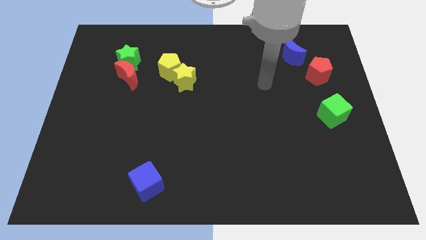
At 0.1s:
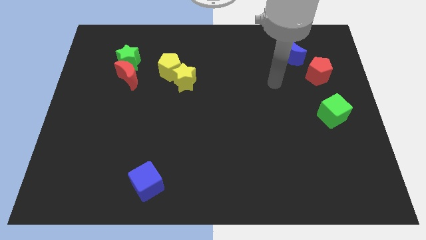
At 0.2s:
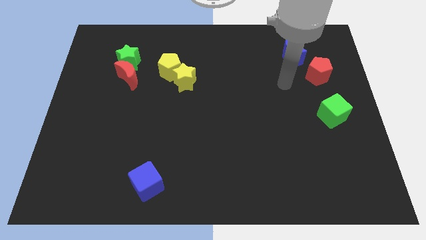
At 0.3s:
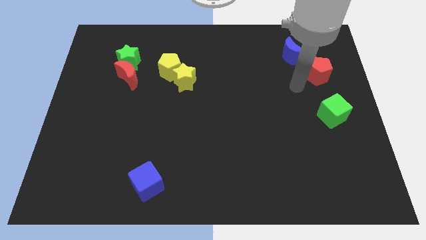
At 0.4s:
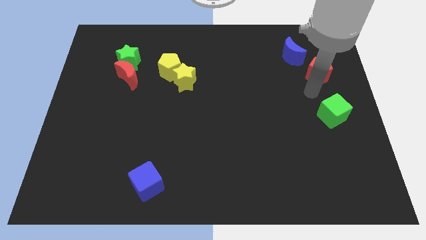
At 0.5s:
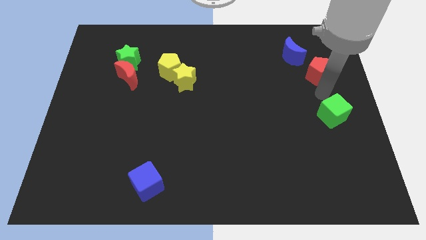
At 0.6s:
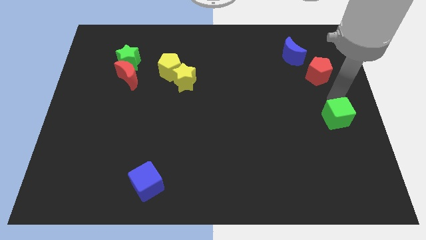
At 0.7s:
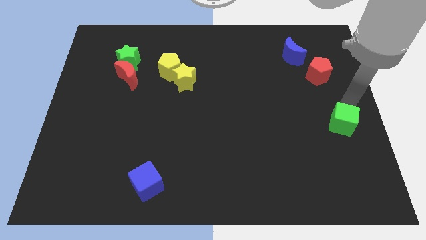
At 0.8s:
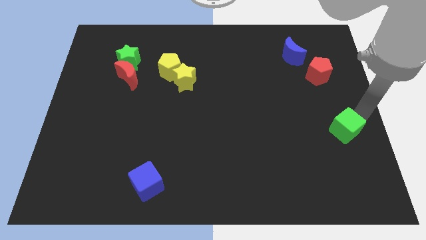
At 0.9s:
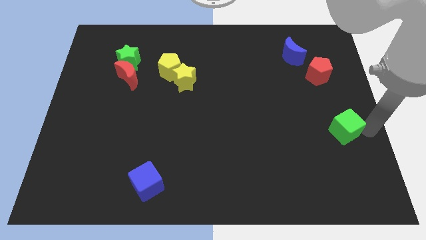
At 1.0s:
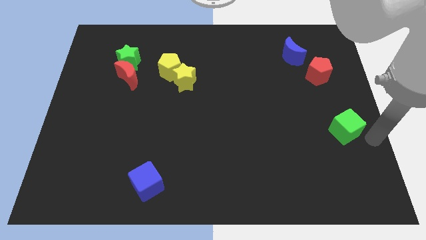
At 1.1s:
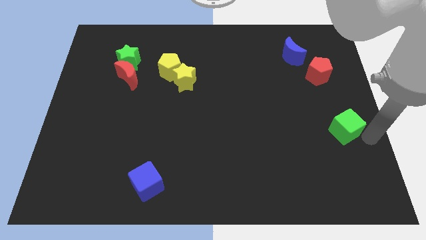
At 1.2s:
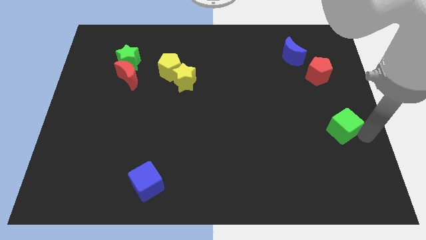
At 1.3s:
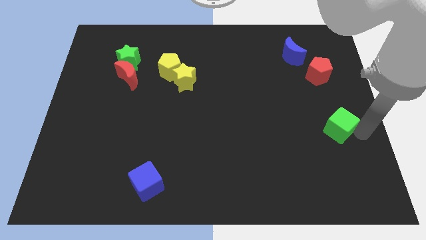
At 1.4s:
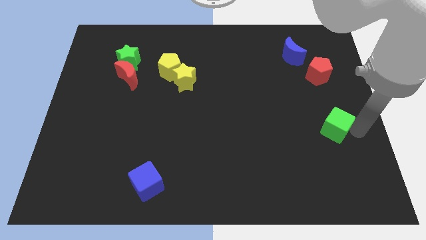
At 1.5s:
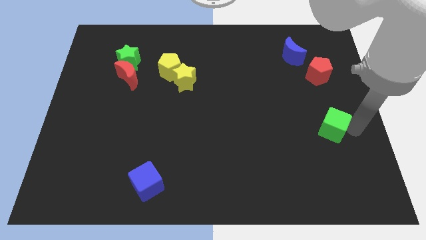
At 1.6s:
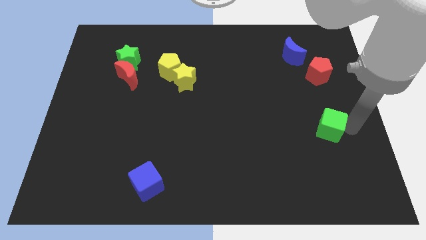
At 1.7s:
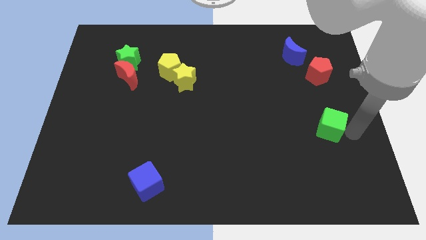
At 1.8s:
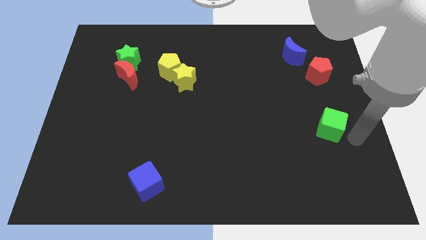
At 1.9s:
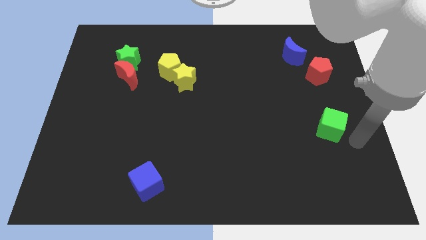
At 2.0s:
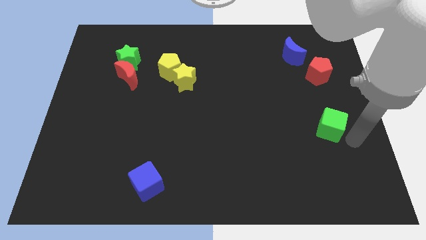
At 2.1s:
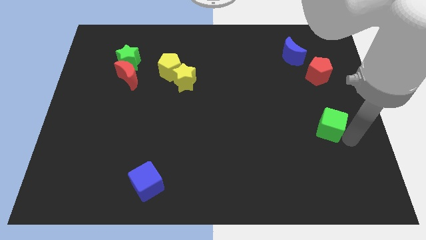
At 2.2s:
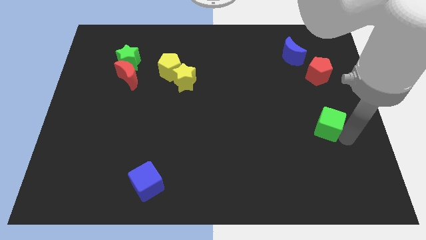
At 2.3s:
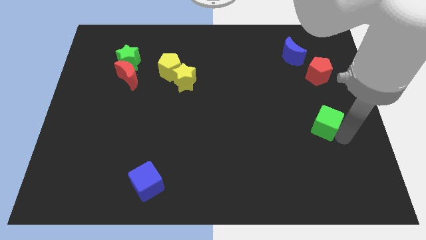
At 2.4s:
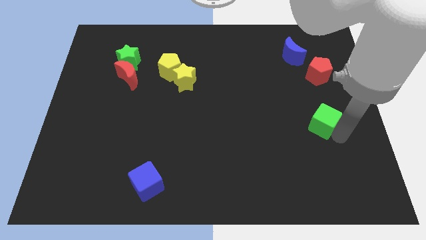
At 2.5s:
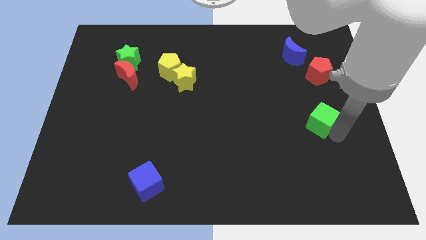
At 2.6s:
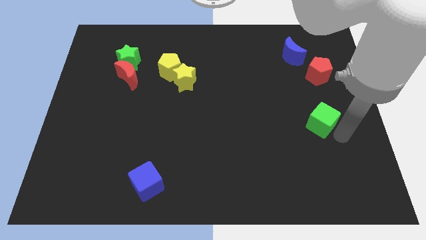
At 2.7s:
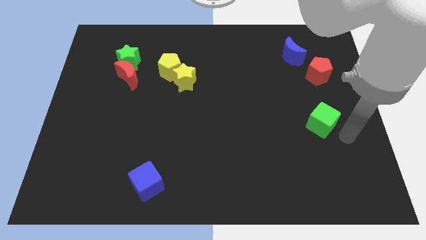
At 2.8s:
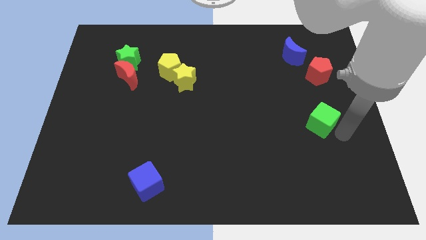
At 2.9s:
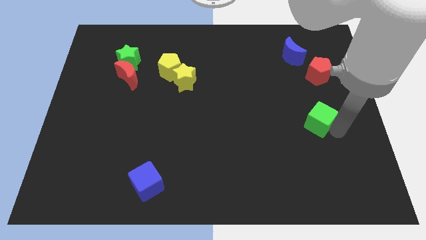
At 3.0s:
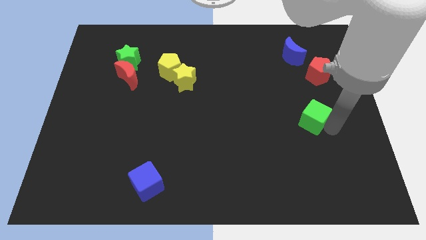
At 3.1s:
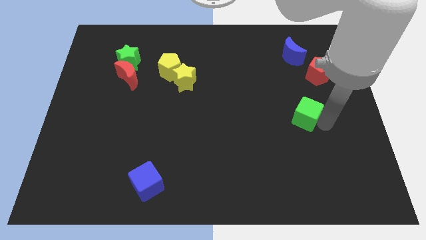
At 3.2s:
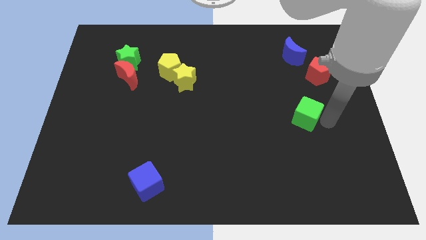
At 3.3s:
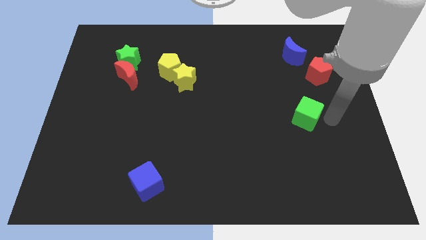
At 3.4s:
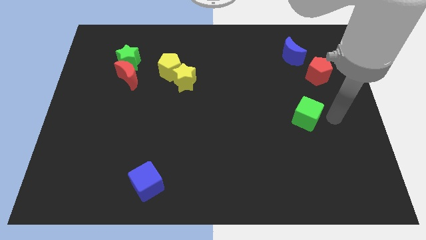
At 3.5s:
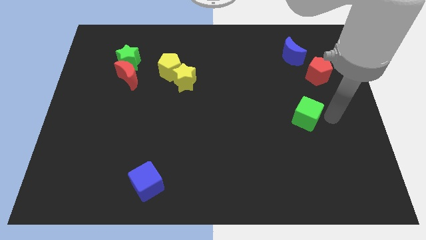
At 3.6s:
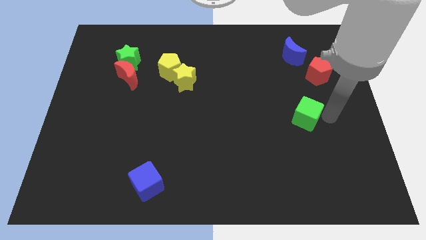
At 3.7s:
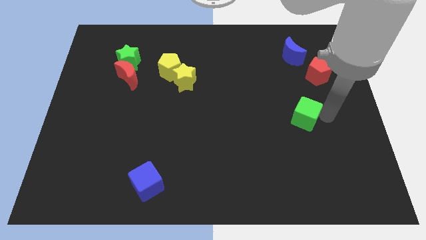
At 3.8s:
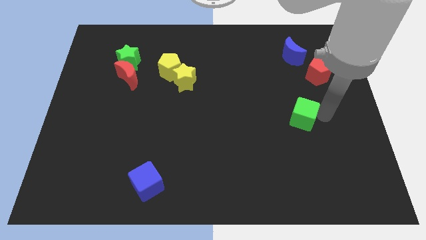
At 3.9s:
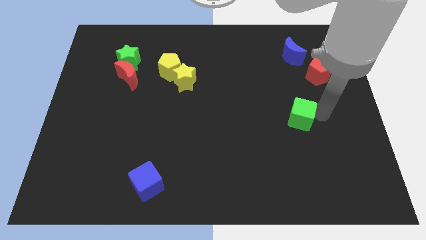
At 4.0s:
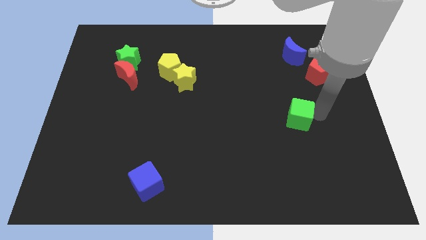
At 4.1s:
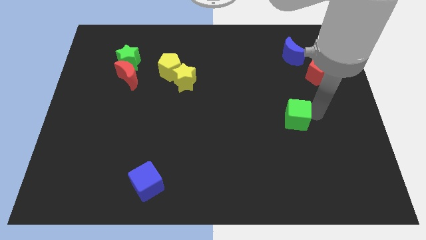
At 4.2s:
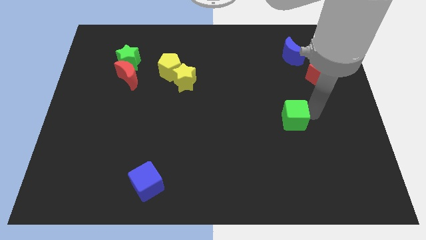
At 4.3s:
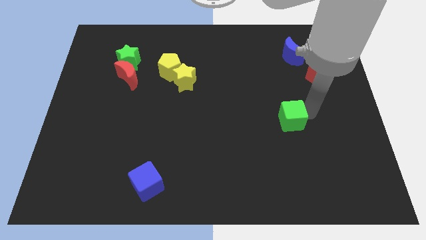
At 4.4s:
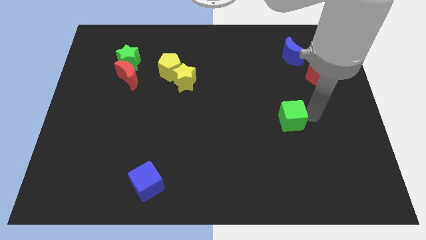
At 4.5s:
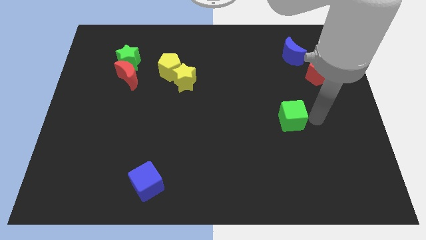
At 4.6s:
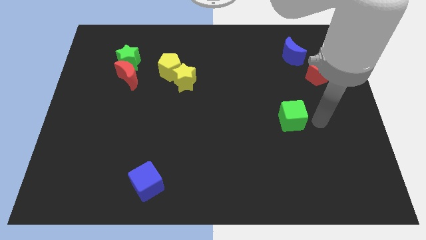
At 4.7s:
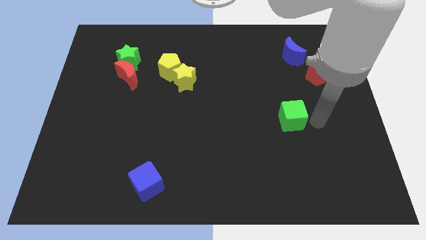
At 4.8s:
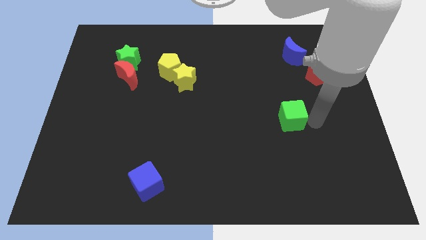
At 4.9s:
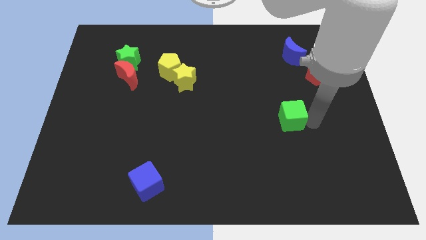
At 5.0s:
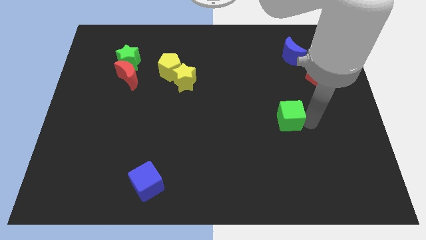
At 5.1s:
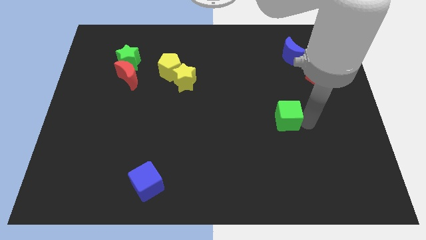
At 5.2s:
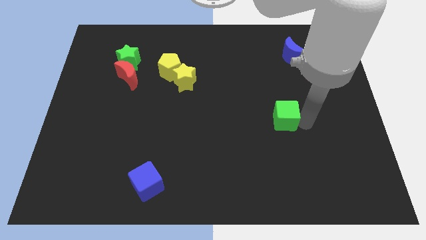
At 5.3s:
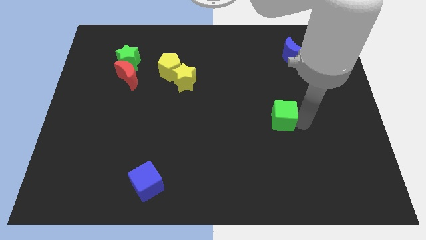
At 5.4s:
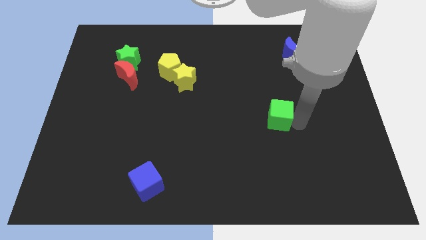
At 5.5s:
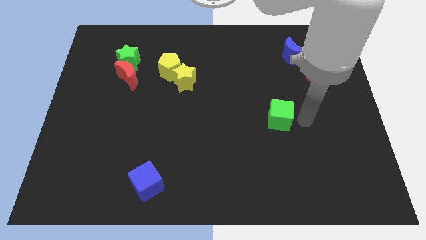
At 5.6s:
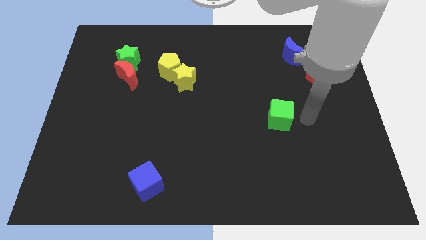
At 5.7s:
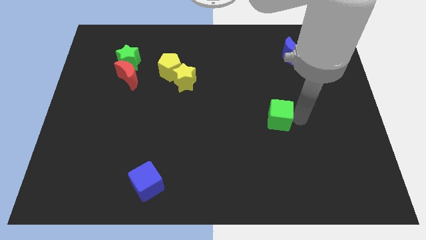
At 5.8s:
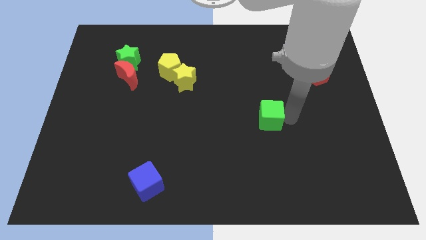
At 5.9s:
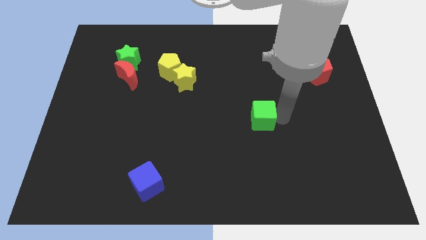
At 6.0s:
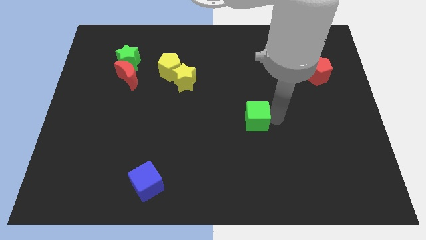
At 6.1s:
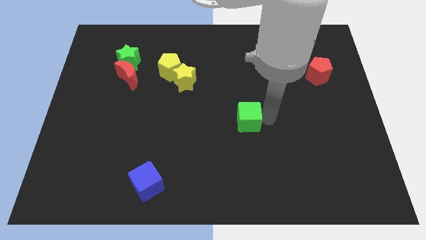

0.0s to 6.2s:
push the green cube left

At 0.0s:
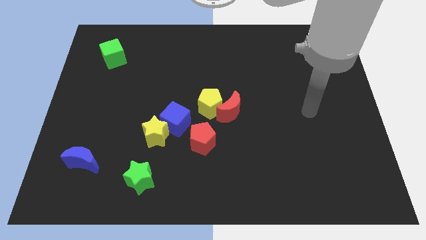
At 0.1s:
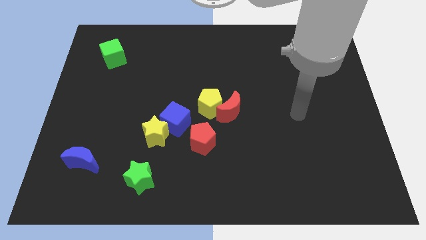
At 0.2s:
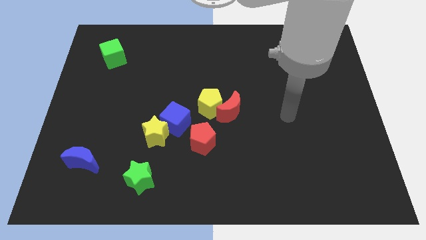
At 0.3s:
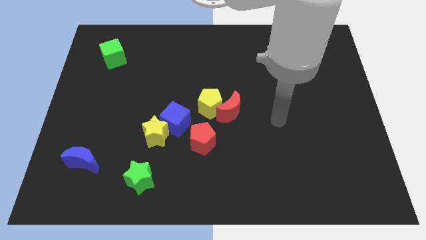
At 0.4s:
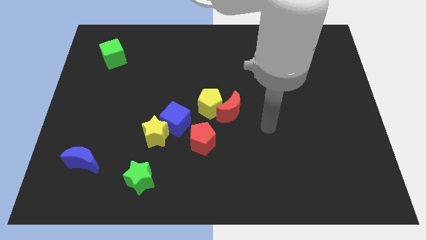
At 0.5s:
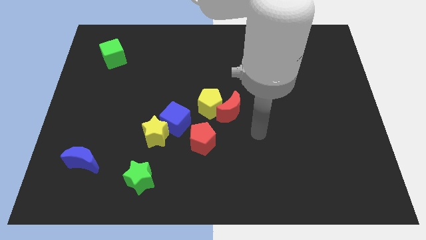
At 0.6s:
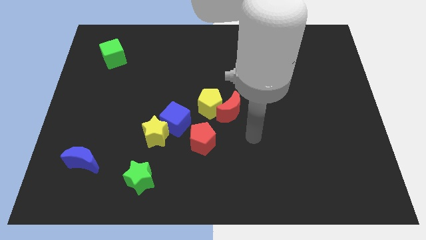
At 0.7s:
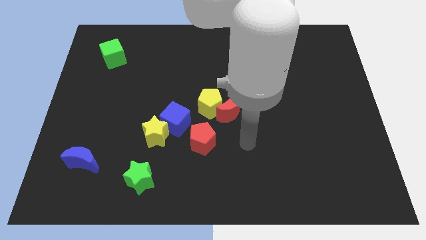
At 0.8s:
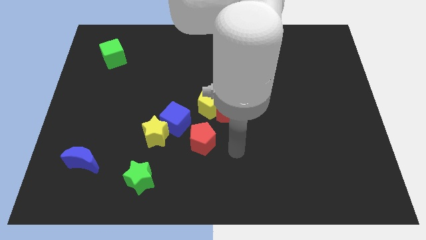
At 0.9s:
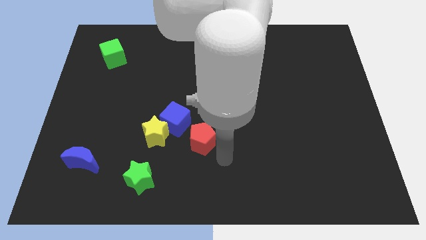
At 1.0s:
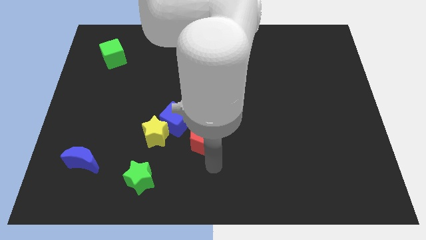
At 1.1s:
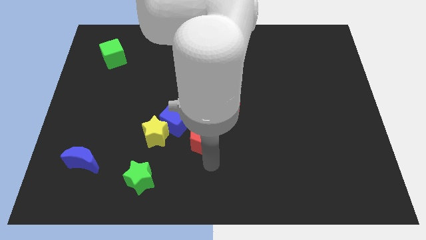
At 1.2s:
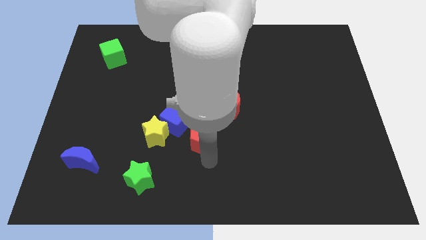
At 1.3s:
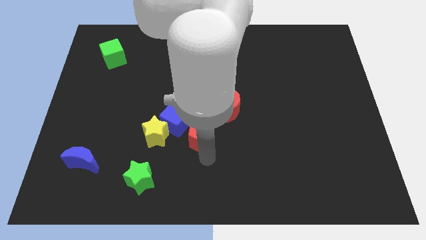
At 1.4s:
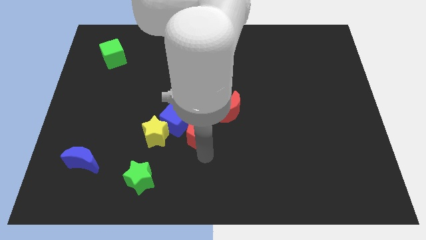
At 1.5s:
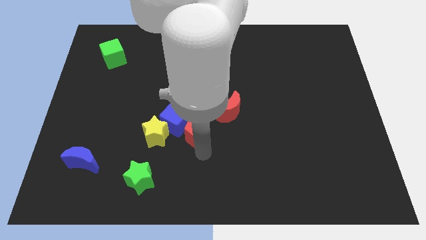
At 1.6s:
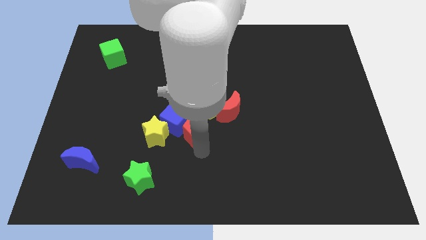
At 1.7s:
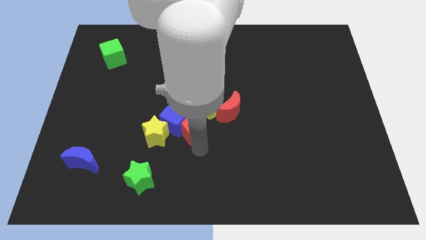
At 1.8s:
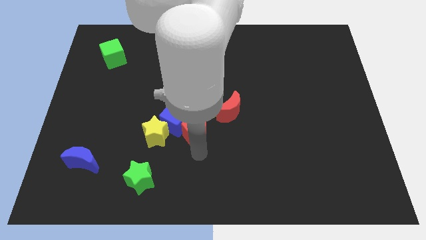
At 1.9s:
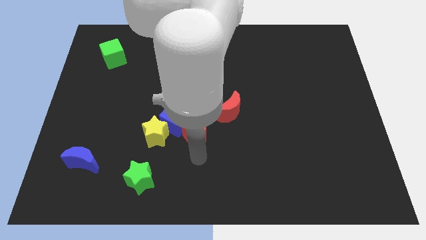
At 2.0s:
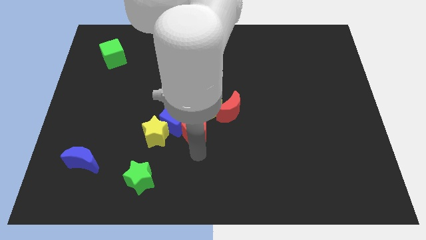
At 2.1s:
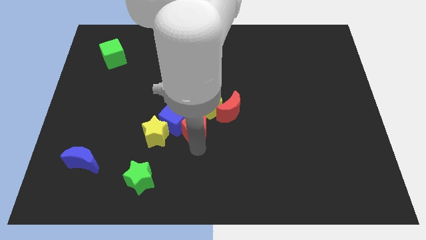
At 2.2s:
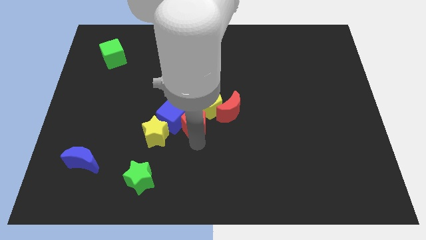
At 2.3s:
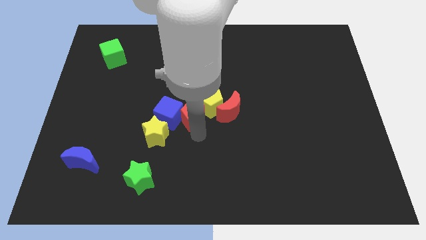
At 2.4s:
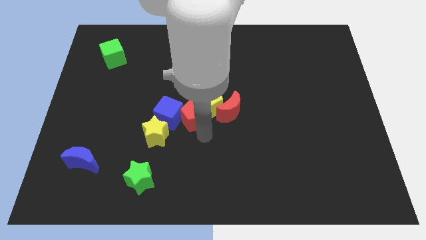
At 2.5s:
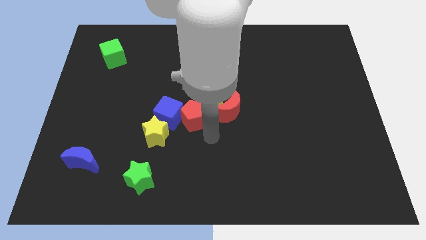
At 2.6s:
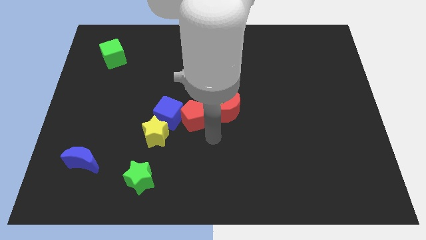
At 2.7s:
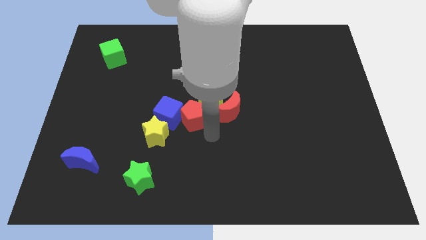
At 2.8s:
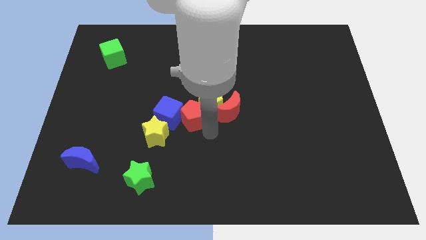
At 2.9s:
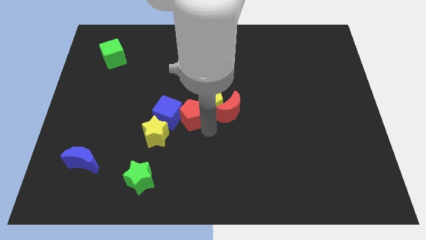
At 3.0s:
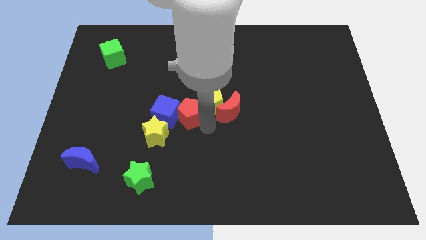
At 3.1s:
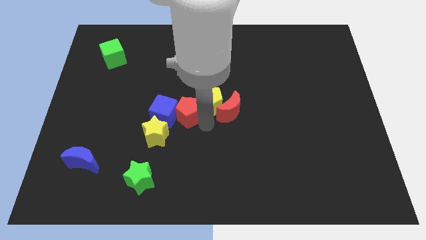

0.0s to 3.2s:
slightly slide the red pentagon diagonally upwards and left
